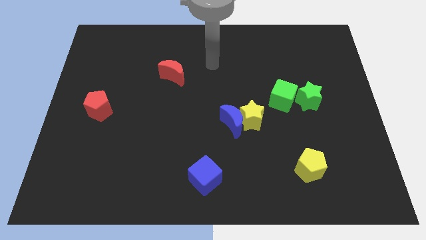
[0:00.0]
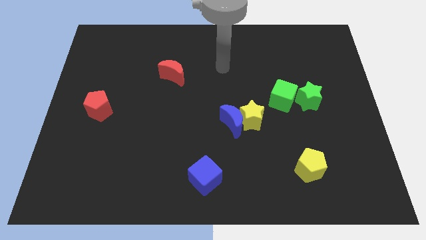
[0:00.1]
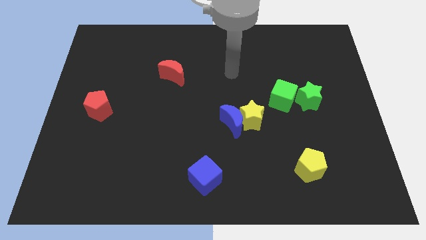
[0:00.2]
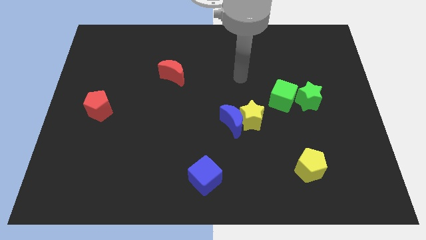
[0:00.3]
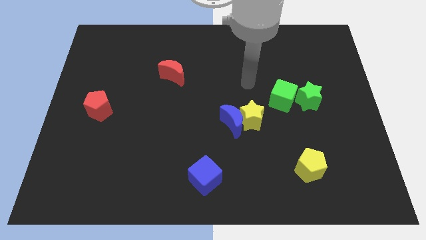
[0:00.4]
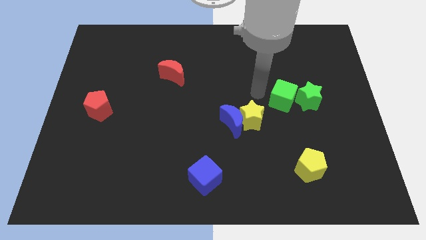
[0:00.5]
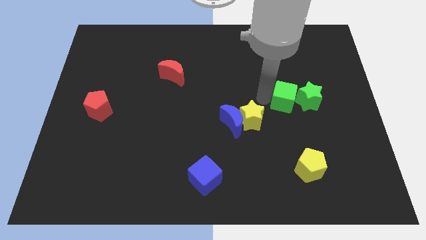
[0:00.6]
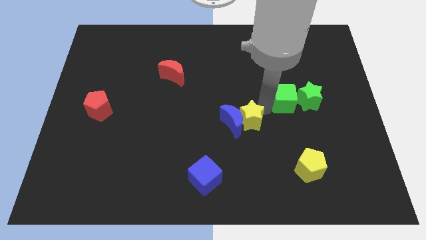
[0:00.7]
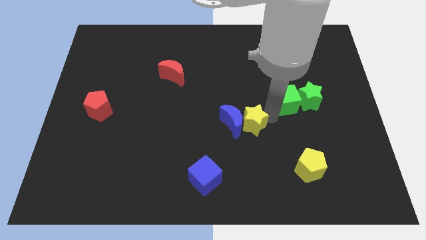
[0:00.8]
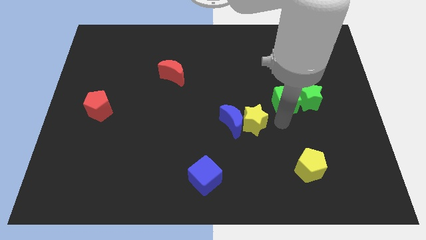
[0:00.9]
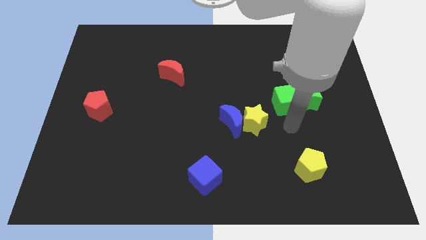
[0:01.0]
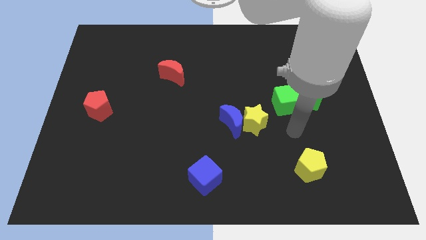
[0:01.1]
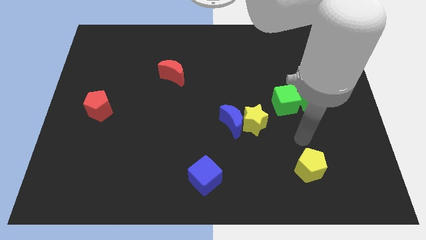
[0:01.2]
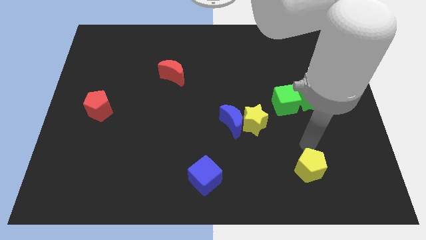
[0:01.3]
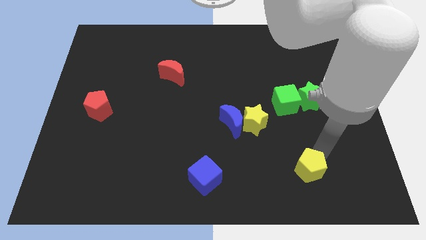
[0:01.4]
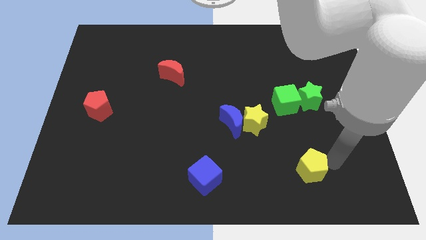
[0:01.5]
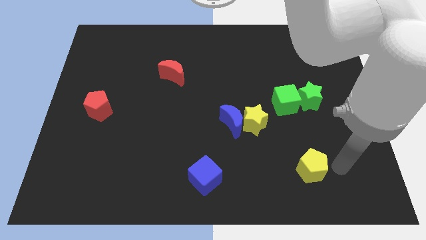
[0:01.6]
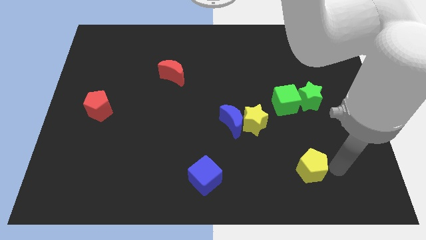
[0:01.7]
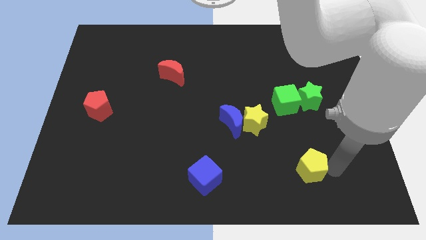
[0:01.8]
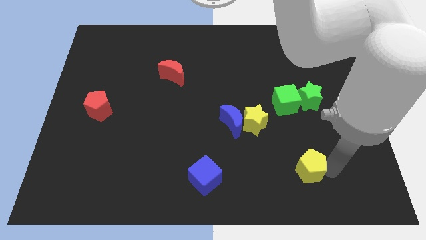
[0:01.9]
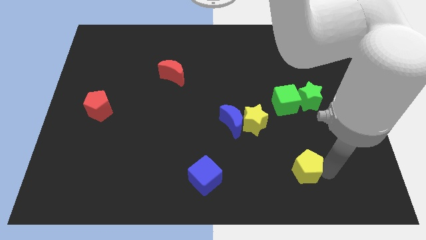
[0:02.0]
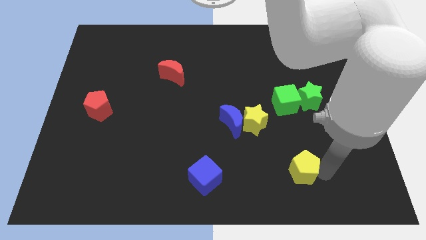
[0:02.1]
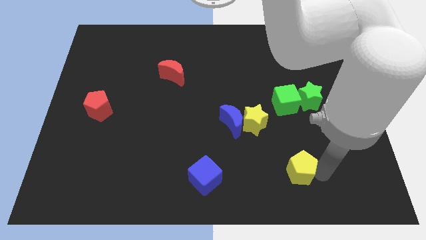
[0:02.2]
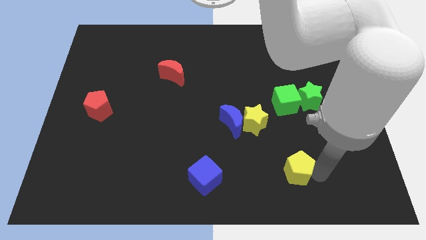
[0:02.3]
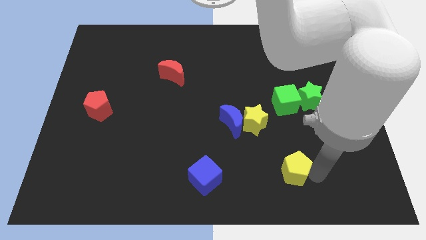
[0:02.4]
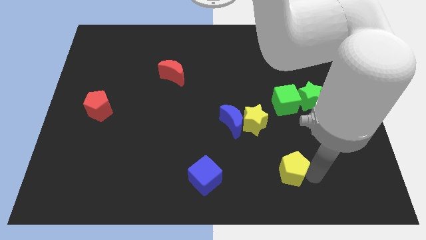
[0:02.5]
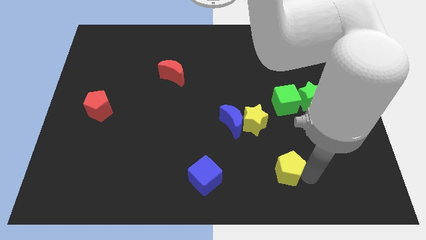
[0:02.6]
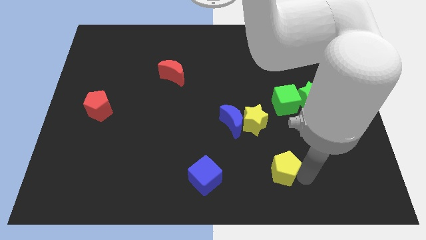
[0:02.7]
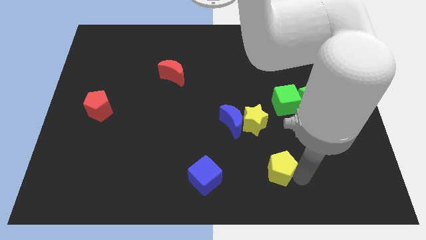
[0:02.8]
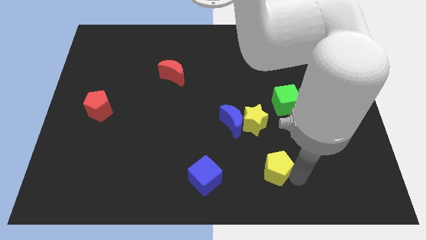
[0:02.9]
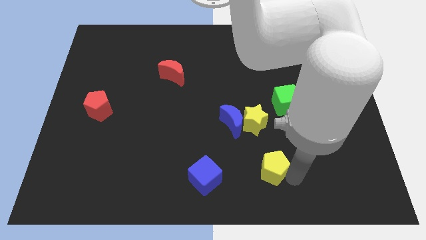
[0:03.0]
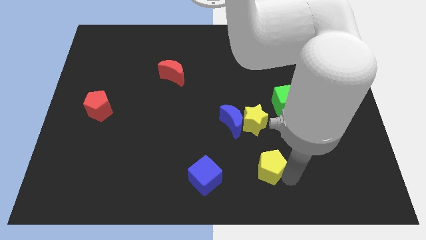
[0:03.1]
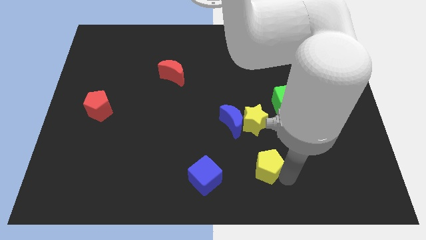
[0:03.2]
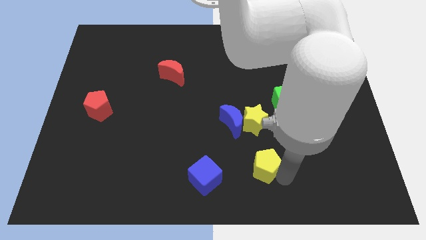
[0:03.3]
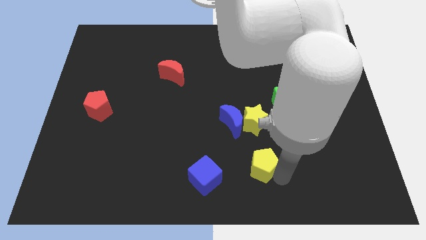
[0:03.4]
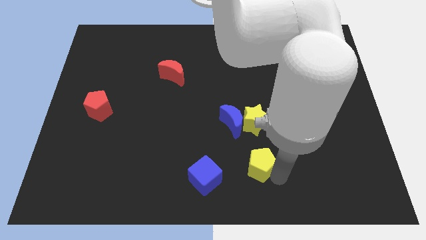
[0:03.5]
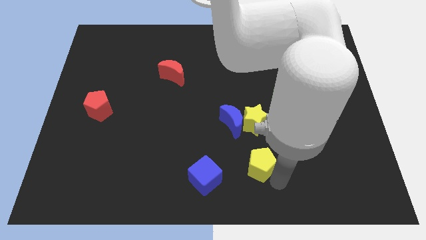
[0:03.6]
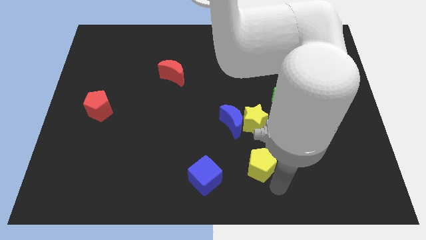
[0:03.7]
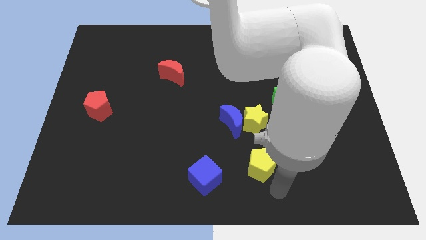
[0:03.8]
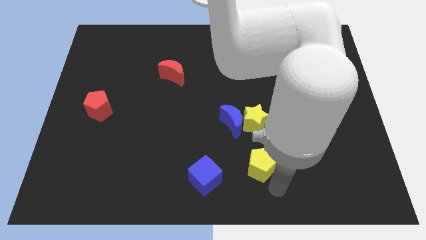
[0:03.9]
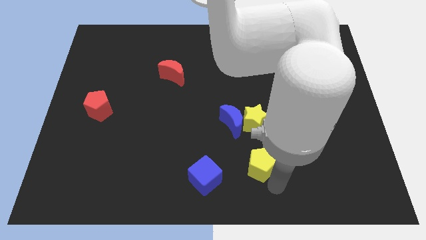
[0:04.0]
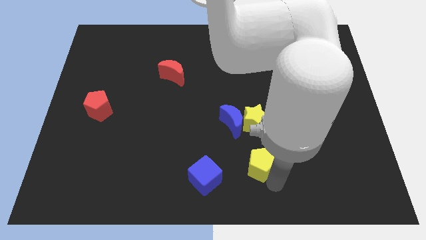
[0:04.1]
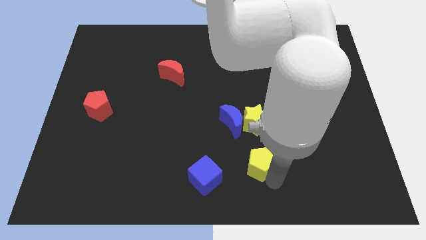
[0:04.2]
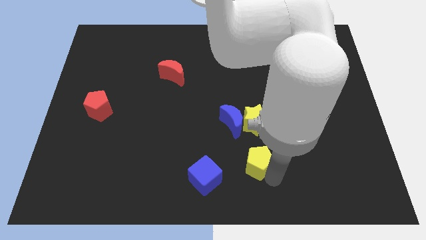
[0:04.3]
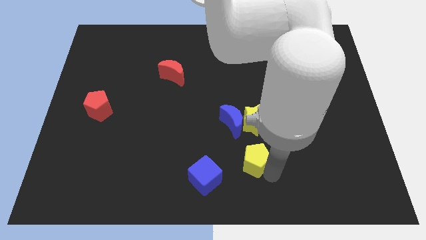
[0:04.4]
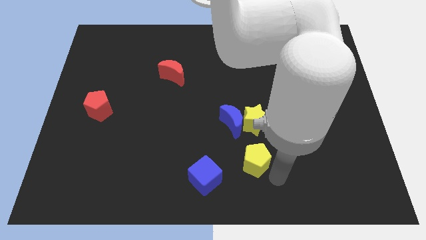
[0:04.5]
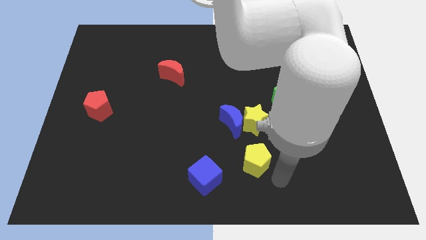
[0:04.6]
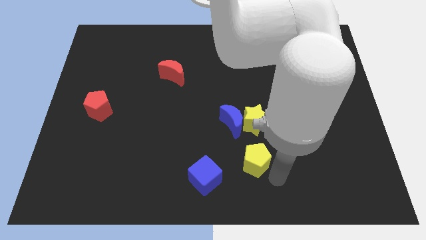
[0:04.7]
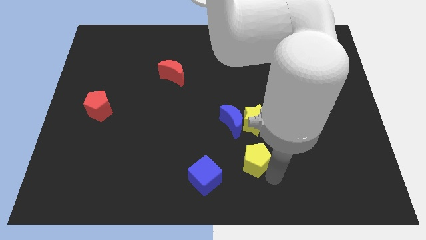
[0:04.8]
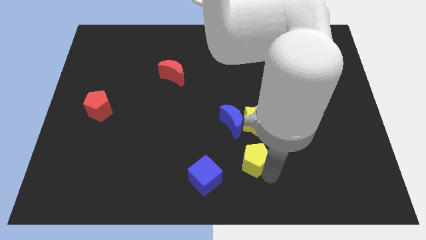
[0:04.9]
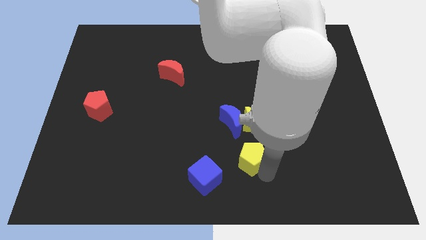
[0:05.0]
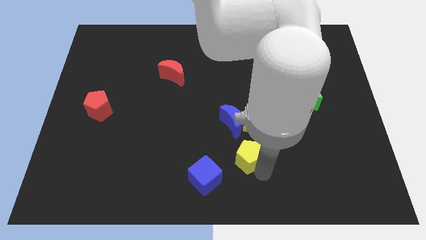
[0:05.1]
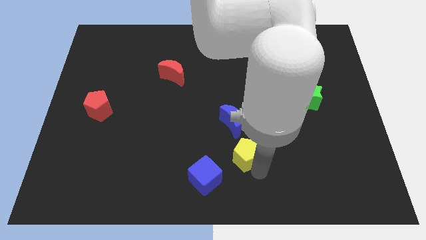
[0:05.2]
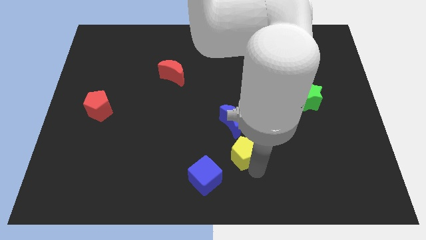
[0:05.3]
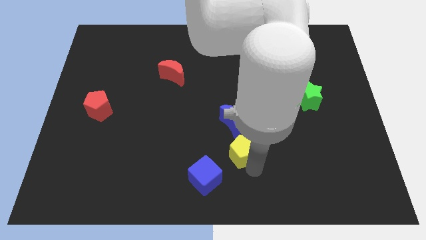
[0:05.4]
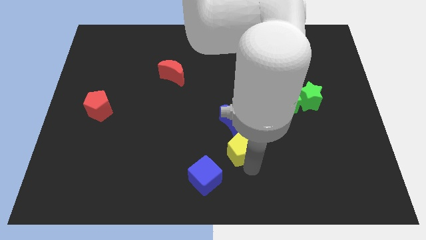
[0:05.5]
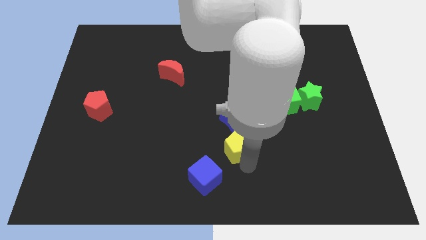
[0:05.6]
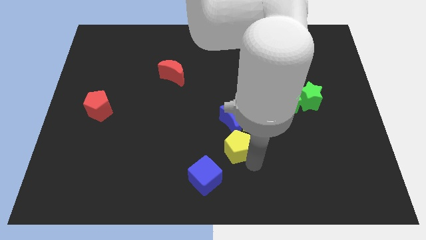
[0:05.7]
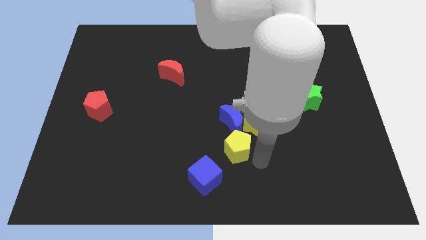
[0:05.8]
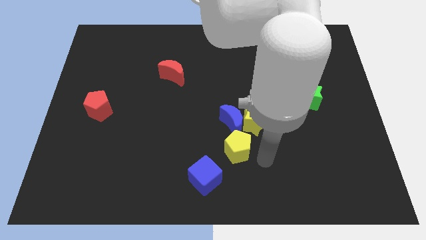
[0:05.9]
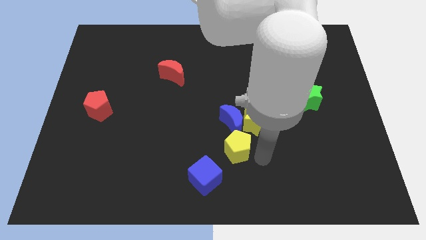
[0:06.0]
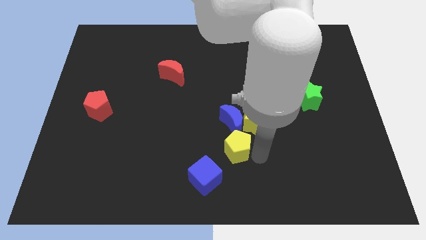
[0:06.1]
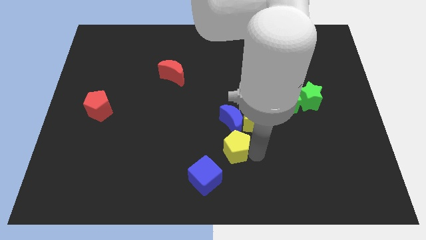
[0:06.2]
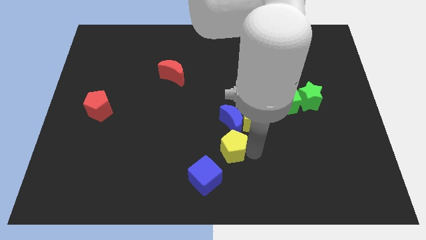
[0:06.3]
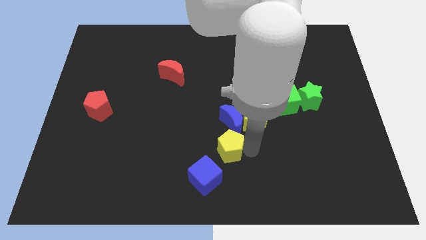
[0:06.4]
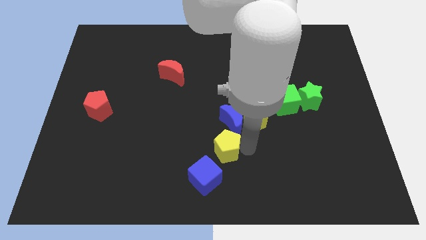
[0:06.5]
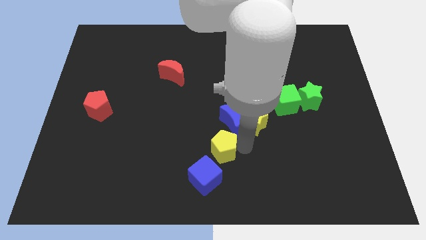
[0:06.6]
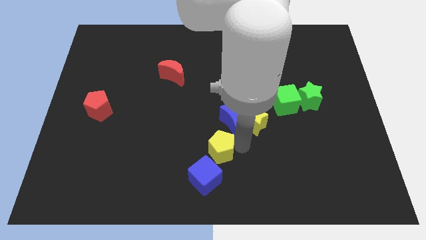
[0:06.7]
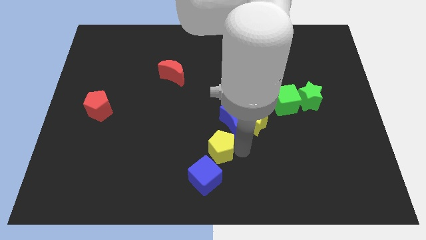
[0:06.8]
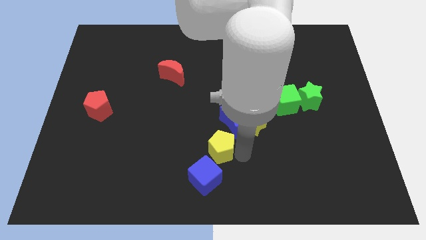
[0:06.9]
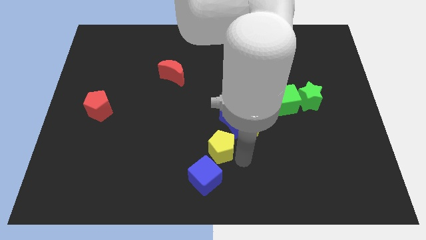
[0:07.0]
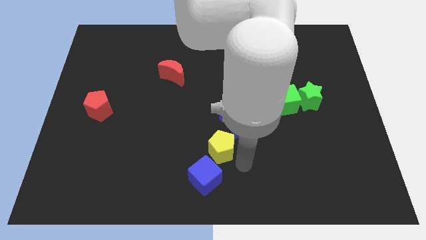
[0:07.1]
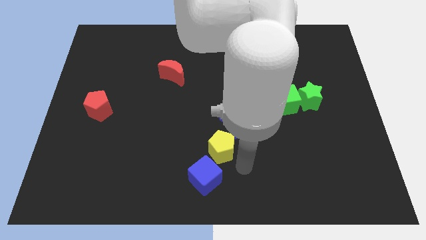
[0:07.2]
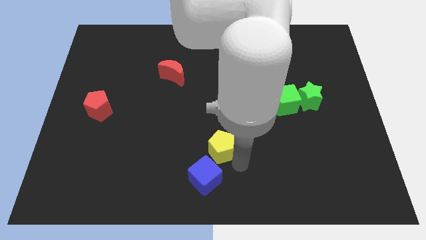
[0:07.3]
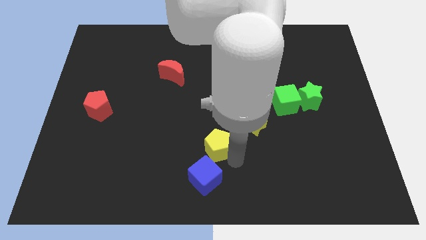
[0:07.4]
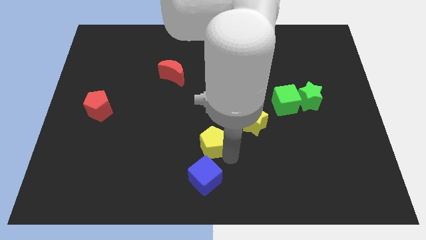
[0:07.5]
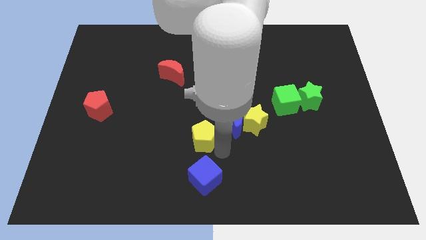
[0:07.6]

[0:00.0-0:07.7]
move the yellow pentagon left of the blue moon
